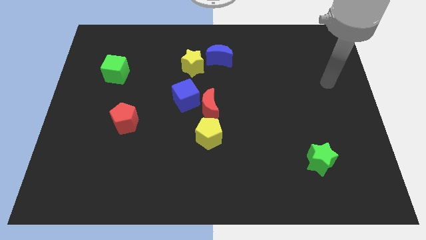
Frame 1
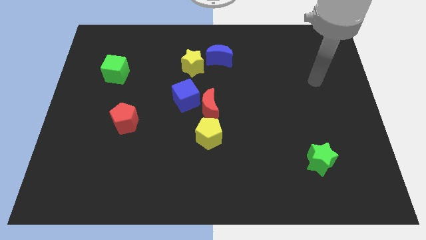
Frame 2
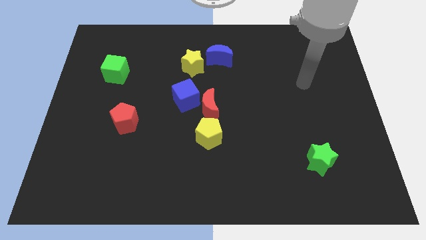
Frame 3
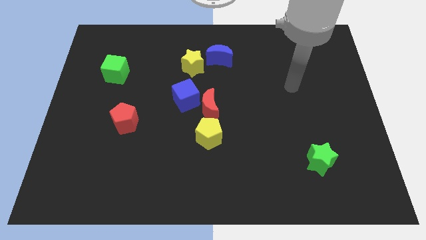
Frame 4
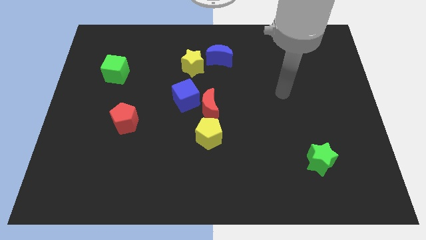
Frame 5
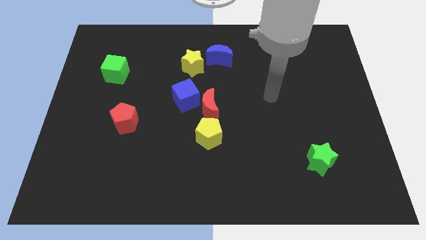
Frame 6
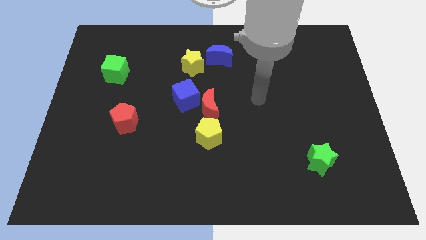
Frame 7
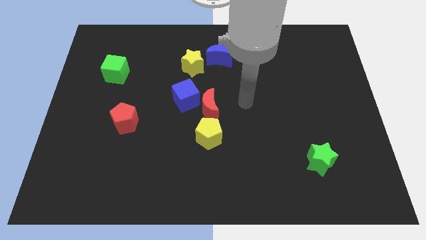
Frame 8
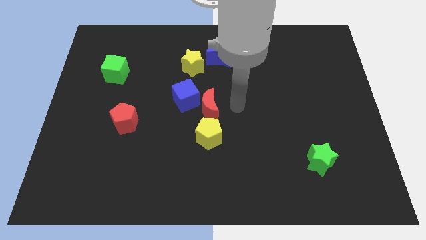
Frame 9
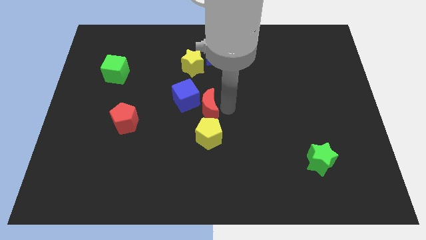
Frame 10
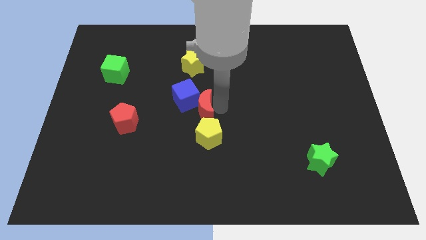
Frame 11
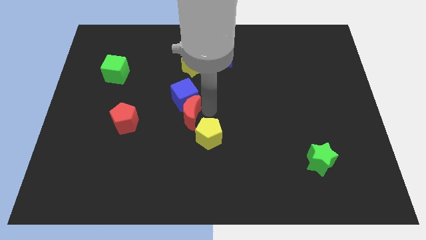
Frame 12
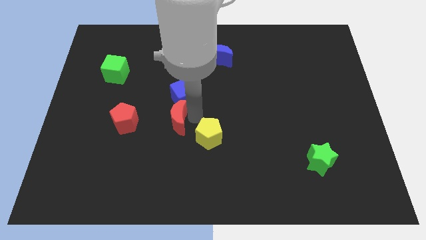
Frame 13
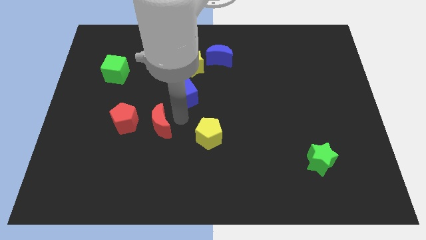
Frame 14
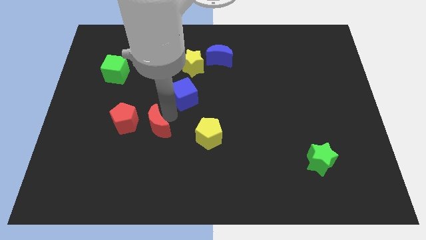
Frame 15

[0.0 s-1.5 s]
move the blue cube away from the red moon

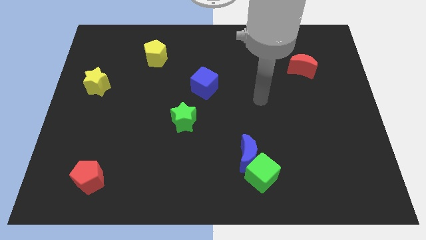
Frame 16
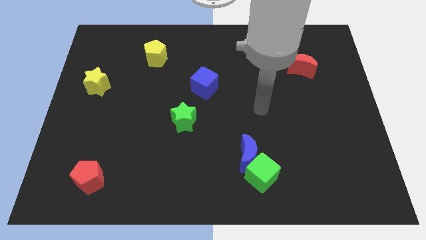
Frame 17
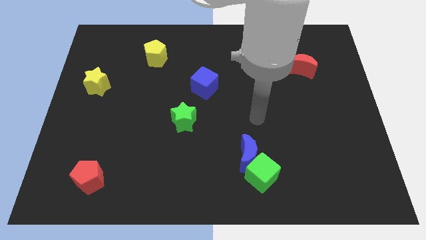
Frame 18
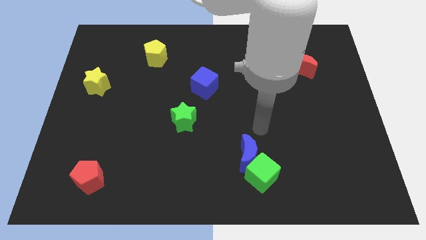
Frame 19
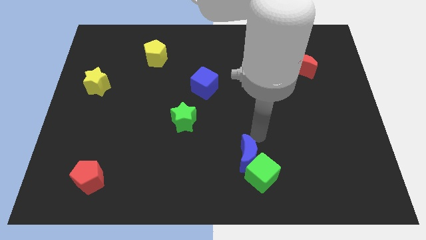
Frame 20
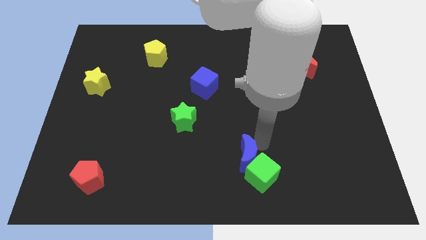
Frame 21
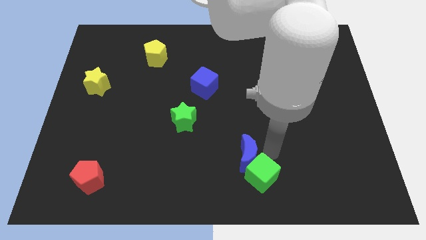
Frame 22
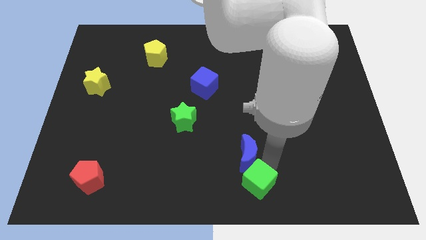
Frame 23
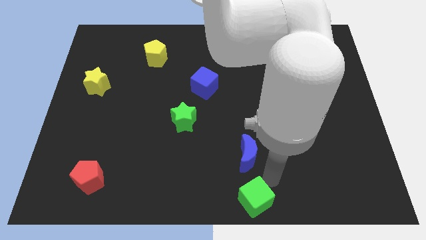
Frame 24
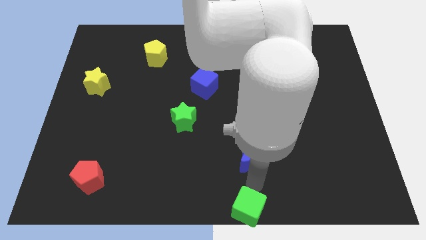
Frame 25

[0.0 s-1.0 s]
move the blue moon away from the green cube

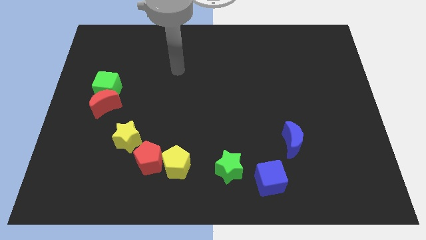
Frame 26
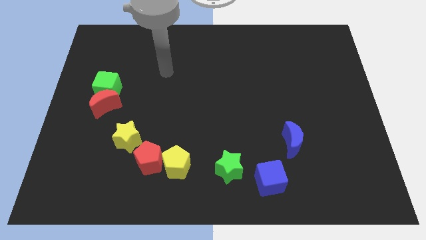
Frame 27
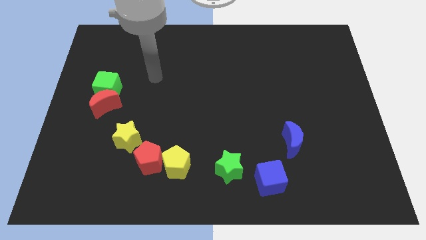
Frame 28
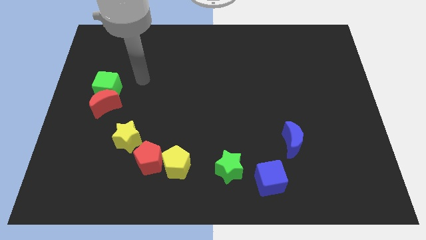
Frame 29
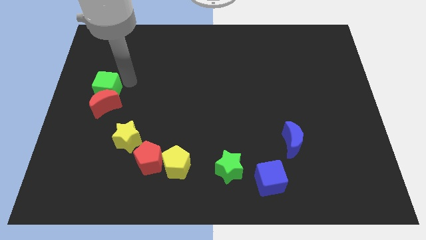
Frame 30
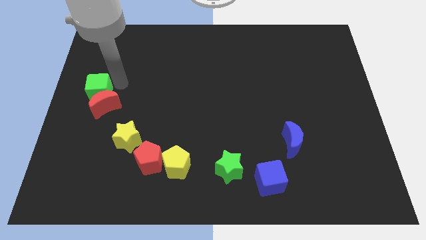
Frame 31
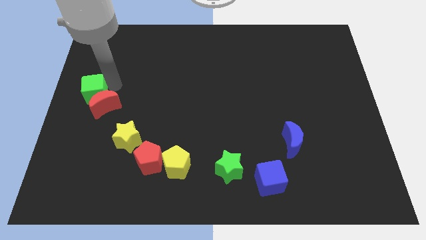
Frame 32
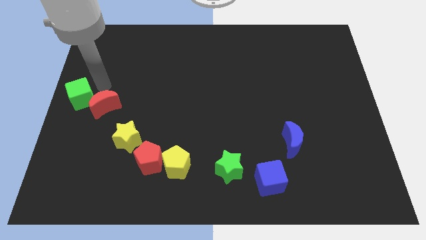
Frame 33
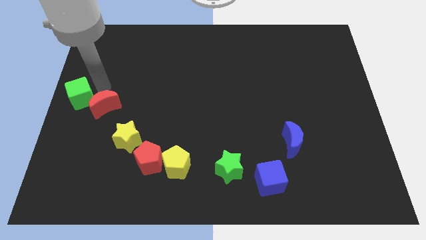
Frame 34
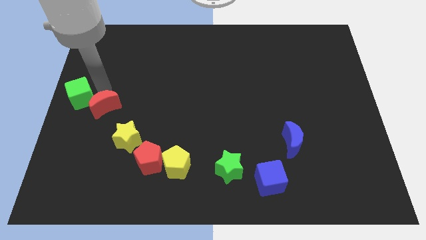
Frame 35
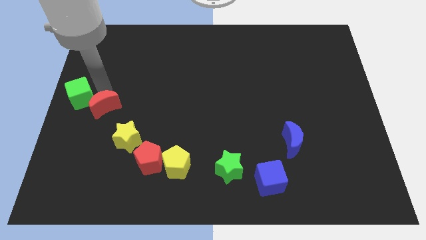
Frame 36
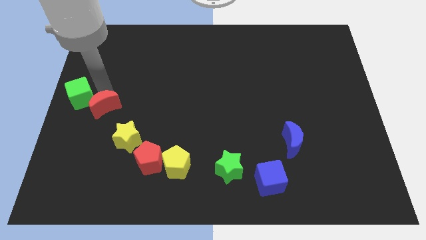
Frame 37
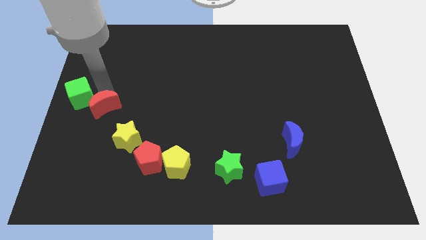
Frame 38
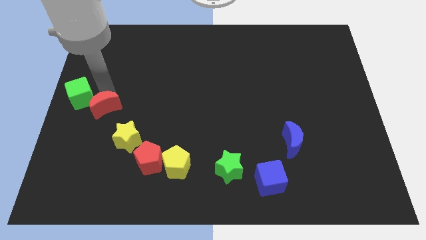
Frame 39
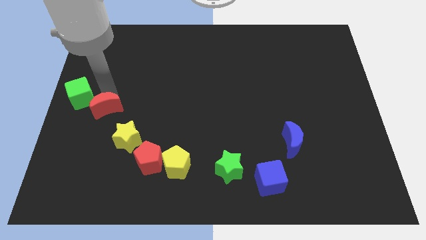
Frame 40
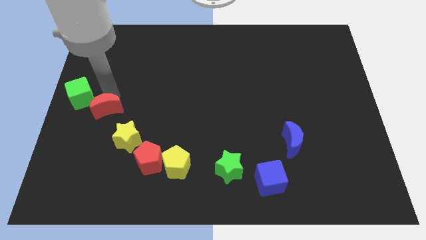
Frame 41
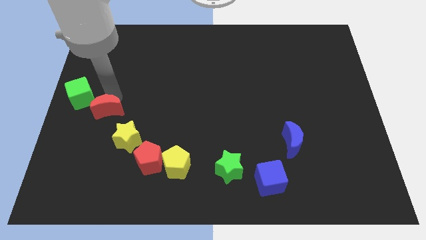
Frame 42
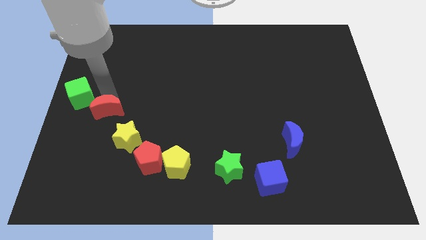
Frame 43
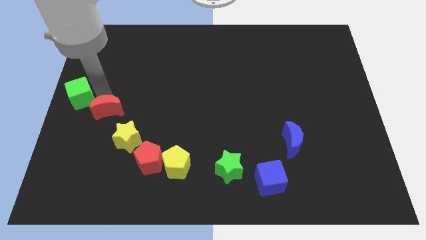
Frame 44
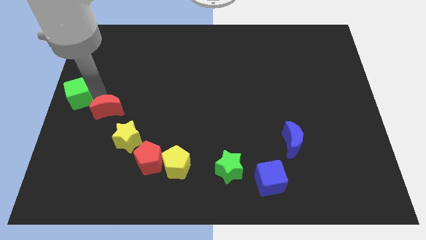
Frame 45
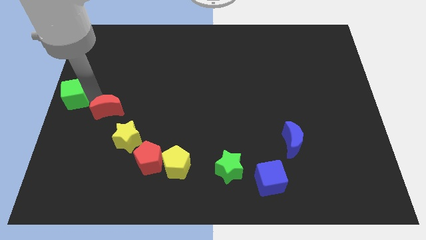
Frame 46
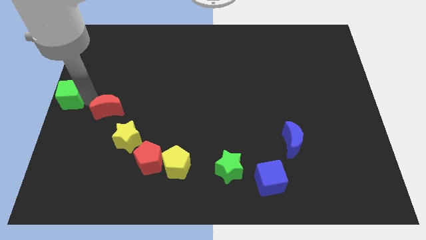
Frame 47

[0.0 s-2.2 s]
move the red moon away from the green cube

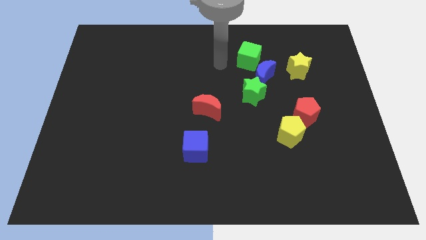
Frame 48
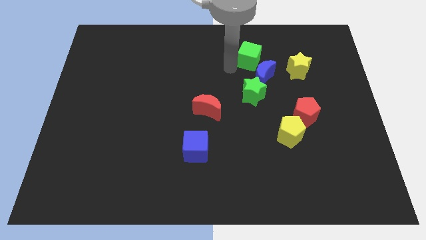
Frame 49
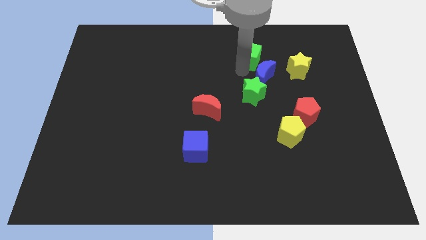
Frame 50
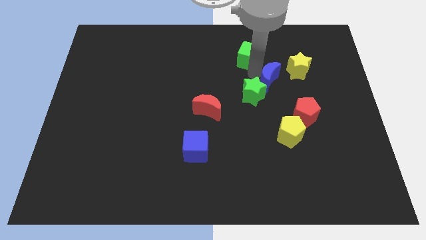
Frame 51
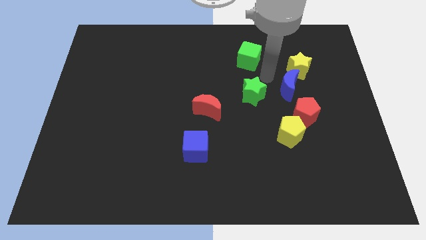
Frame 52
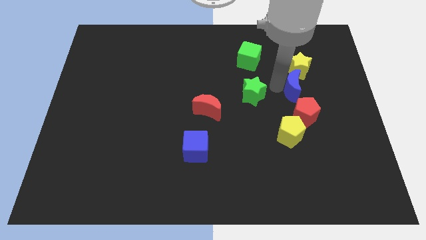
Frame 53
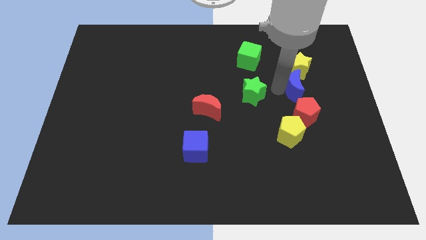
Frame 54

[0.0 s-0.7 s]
move the green star away from the blue moon

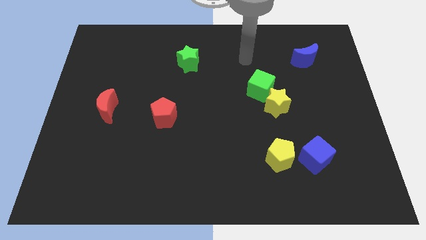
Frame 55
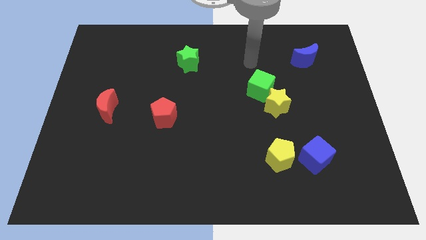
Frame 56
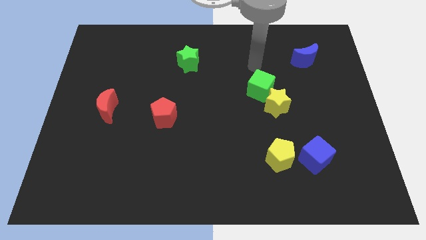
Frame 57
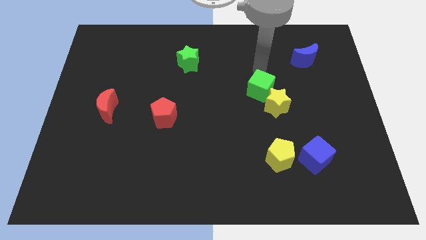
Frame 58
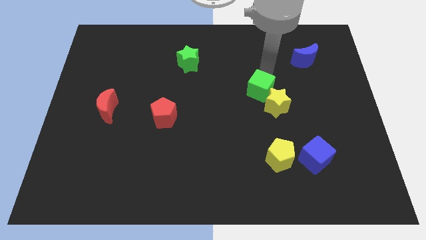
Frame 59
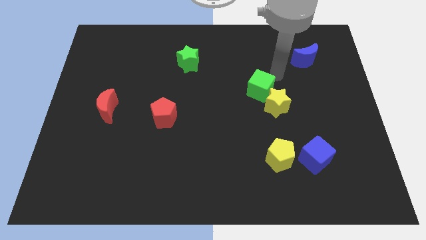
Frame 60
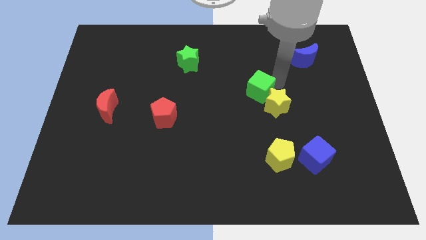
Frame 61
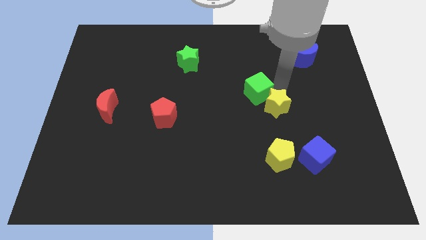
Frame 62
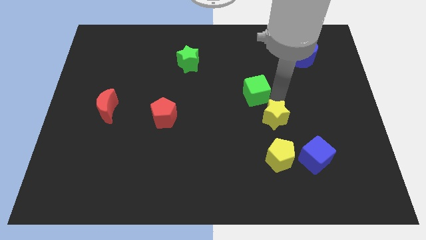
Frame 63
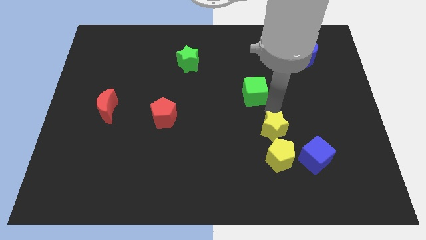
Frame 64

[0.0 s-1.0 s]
move the green cube away from the yellow star

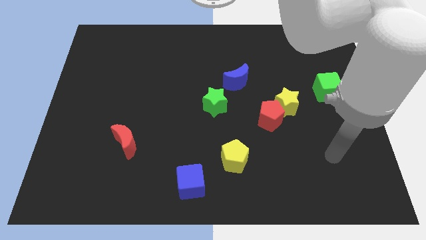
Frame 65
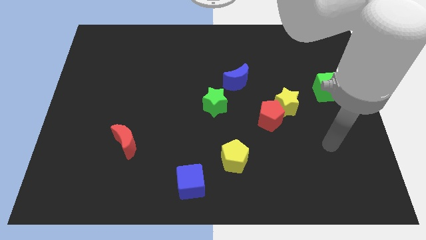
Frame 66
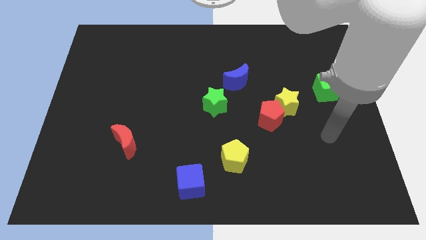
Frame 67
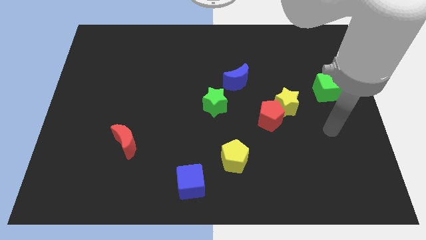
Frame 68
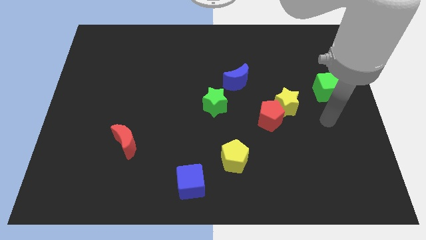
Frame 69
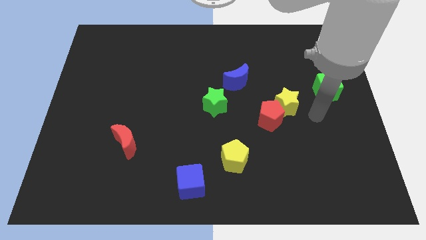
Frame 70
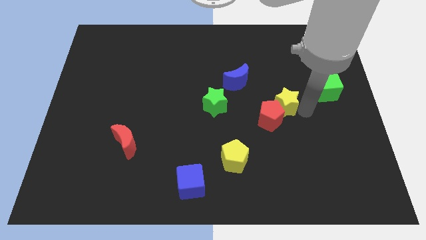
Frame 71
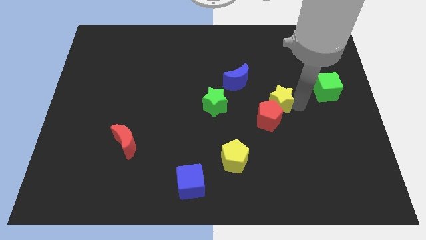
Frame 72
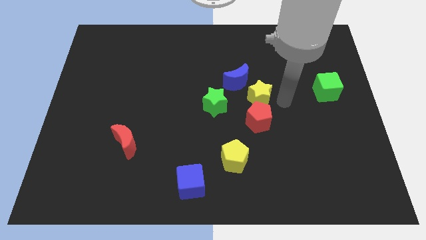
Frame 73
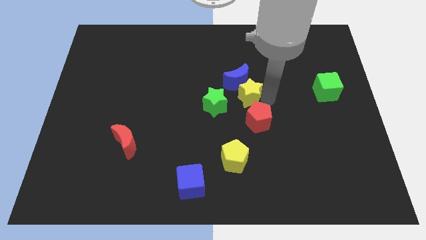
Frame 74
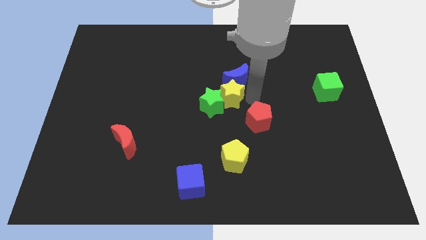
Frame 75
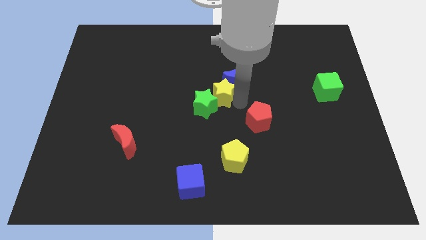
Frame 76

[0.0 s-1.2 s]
separate the red pentagon from the yellow star

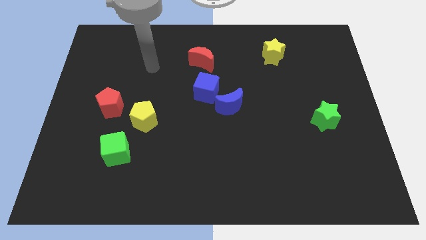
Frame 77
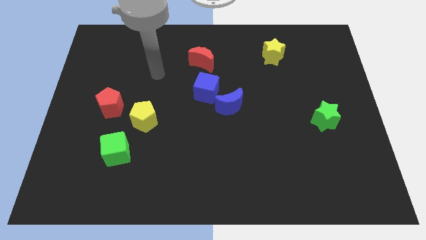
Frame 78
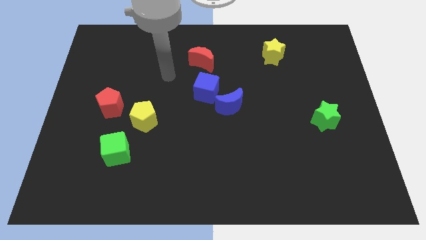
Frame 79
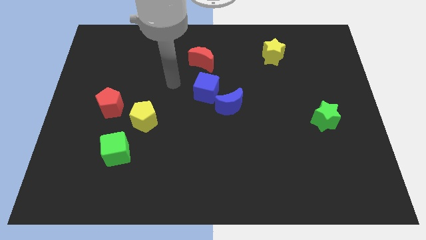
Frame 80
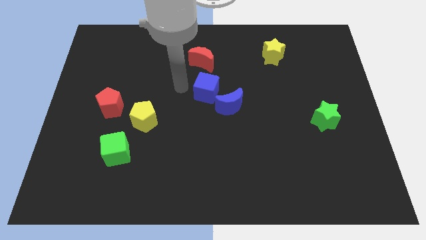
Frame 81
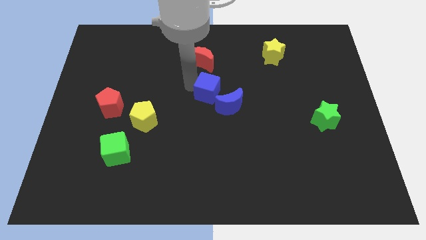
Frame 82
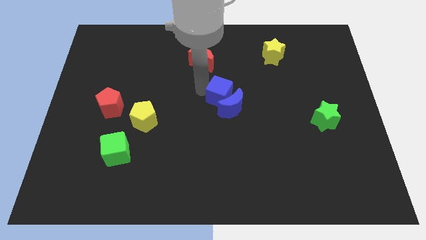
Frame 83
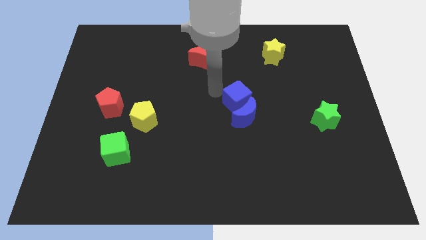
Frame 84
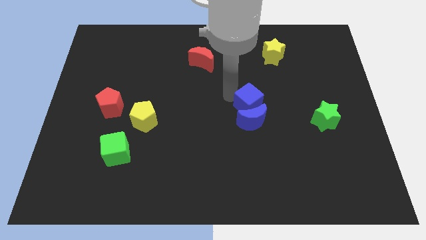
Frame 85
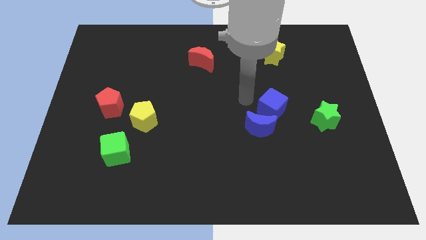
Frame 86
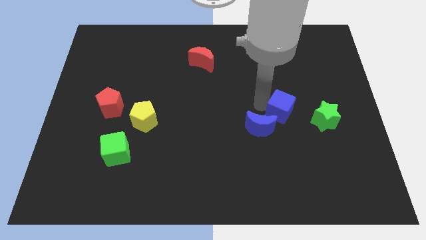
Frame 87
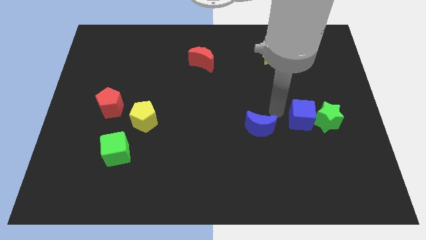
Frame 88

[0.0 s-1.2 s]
pull the blue moon apart from the blue cube

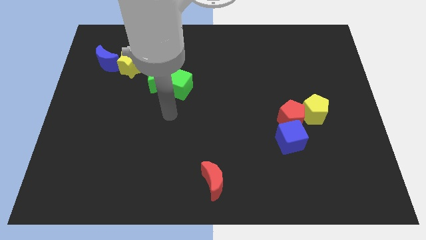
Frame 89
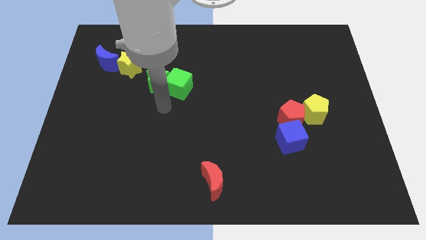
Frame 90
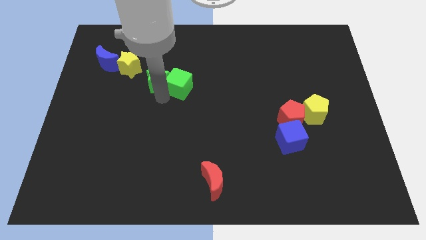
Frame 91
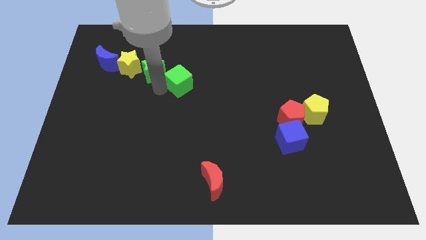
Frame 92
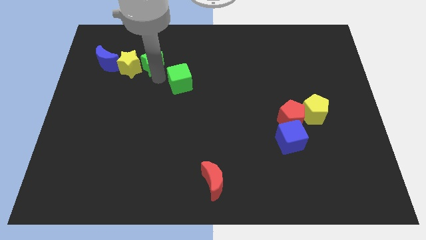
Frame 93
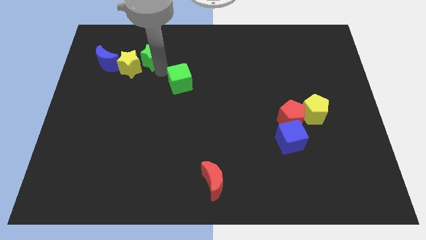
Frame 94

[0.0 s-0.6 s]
separate the green cube from the green star

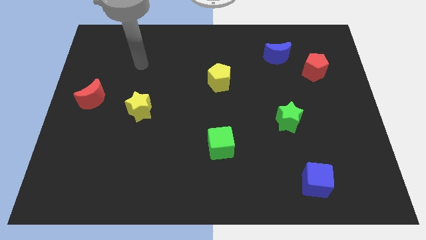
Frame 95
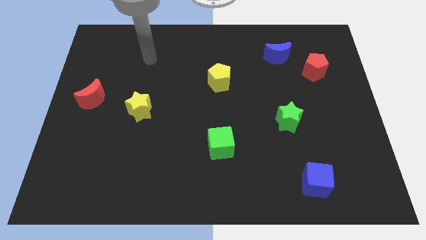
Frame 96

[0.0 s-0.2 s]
separate the red pentagon from the blue moon
